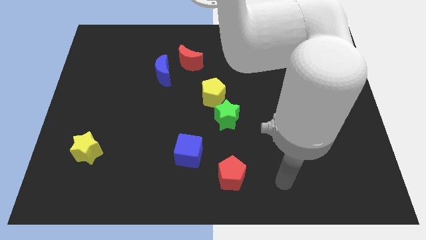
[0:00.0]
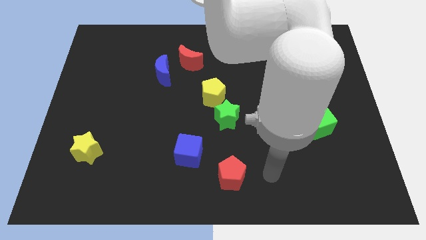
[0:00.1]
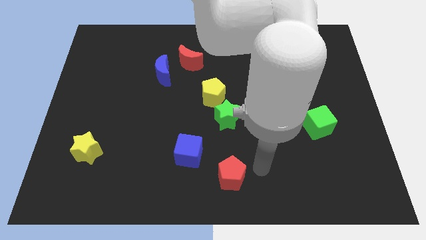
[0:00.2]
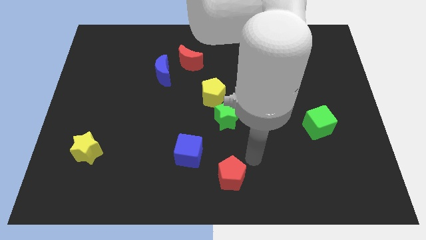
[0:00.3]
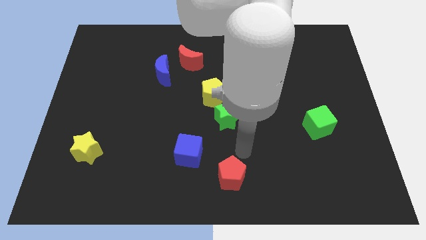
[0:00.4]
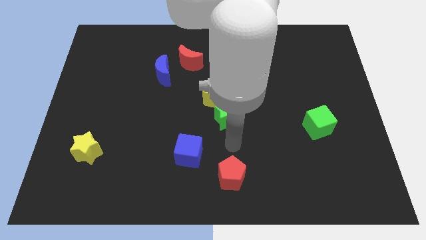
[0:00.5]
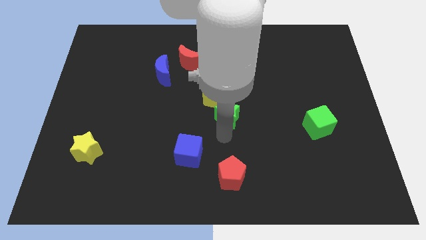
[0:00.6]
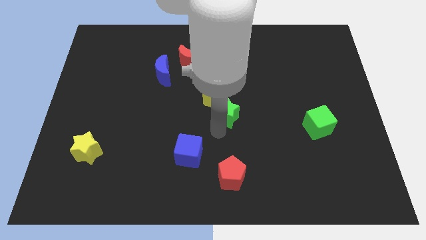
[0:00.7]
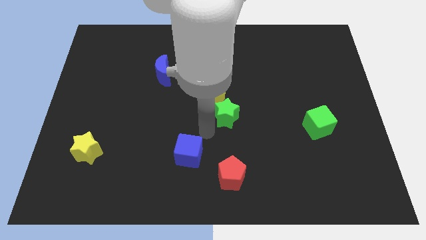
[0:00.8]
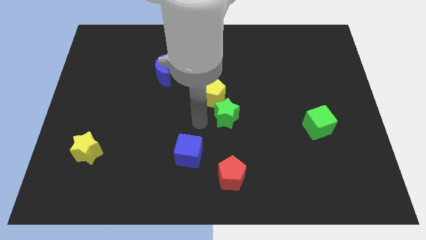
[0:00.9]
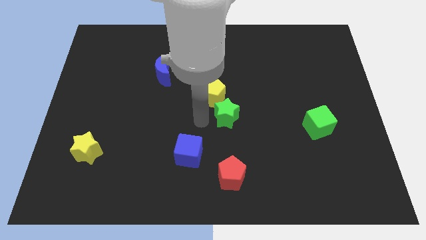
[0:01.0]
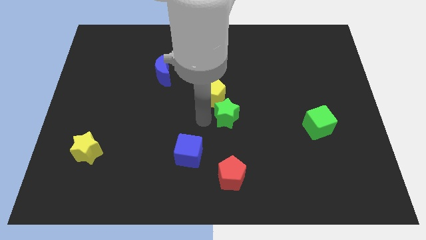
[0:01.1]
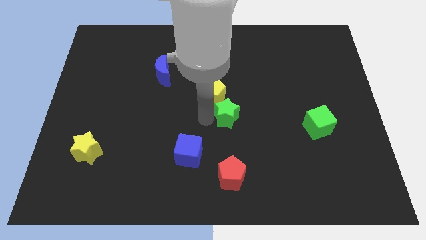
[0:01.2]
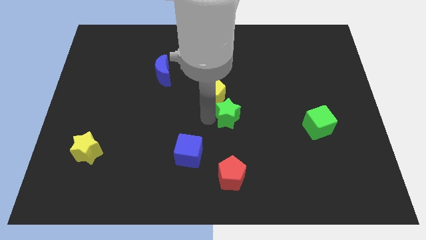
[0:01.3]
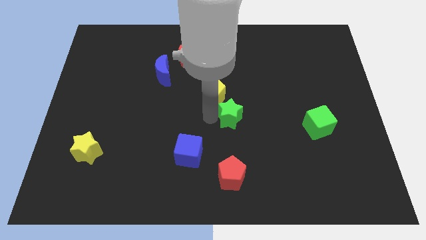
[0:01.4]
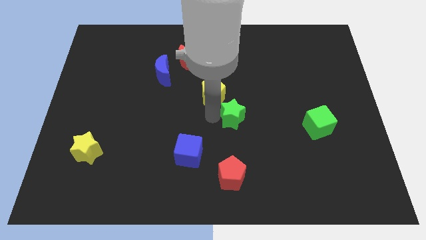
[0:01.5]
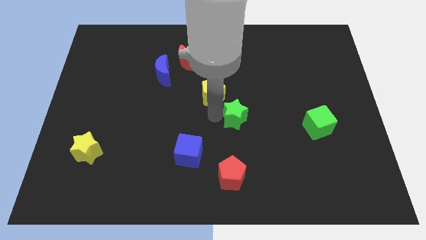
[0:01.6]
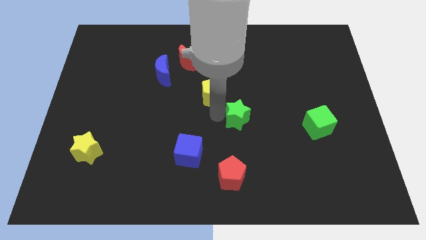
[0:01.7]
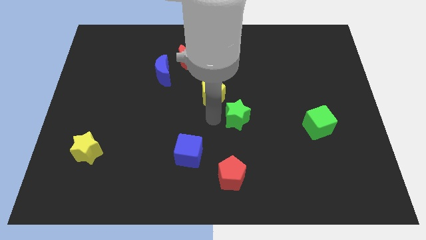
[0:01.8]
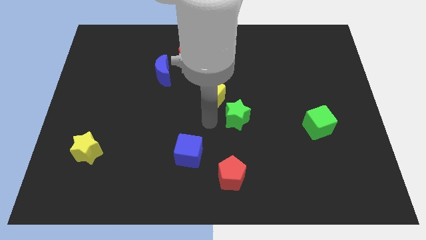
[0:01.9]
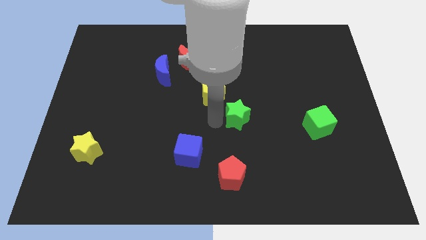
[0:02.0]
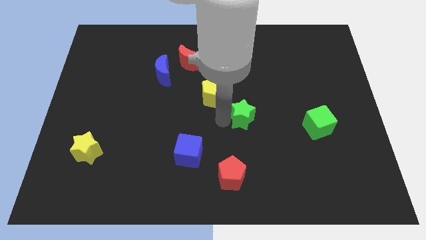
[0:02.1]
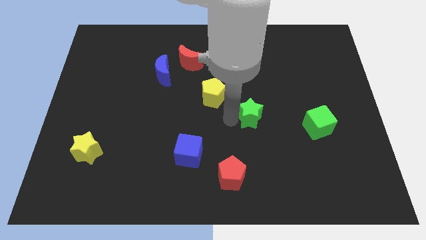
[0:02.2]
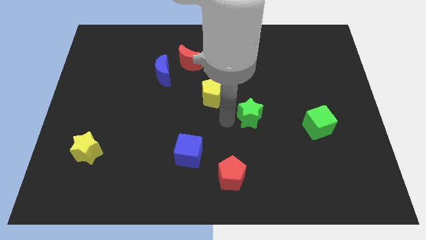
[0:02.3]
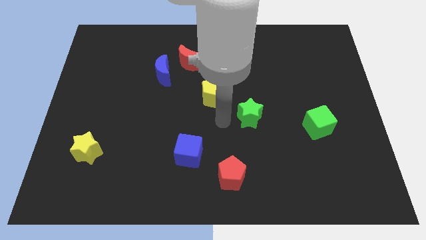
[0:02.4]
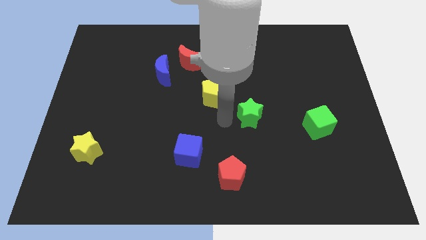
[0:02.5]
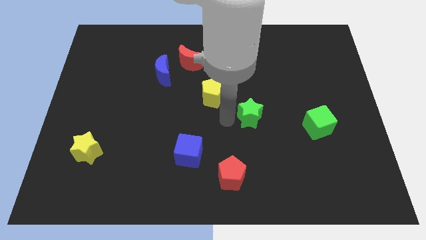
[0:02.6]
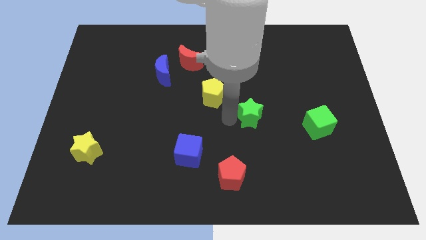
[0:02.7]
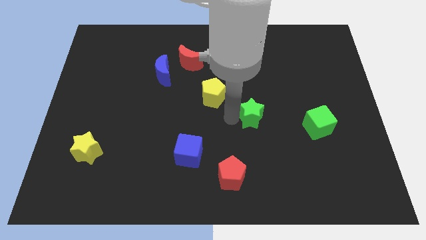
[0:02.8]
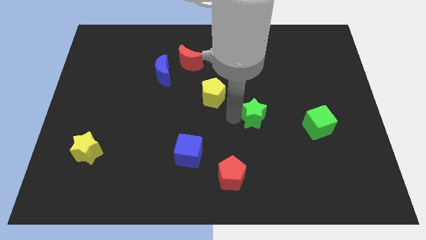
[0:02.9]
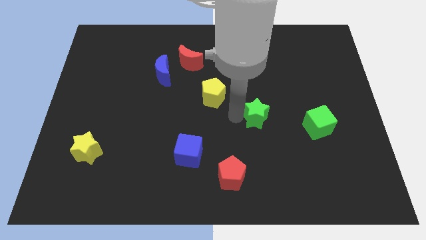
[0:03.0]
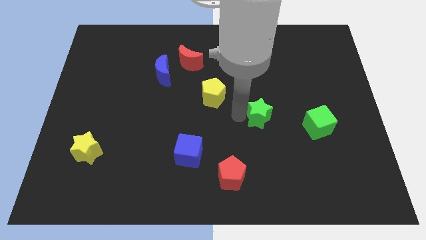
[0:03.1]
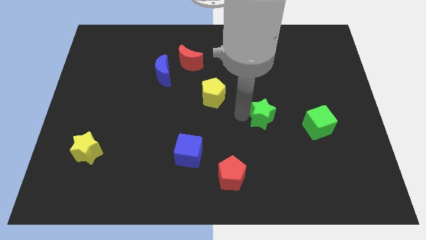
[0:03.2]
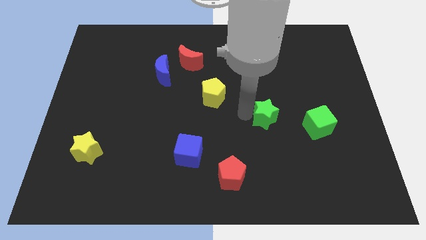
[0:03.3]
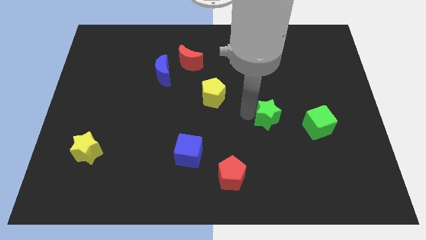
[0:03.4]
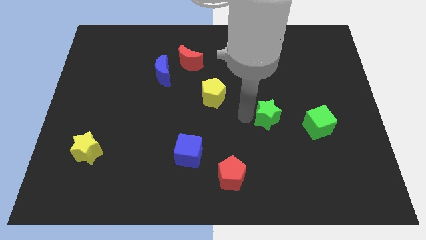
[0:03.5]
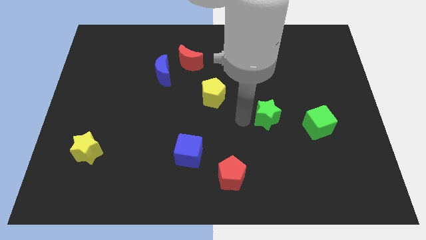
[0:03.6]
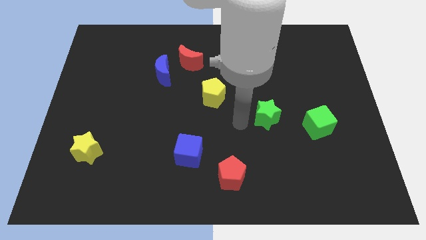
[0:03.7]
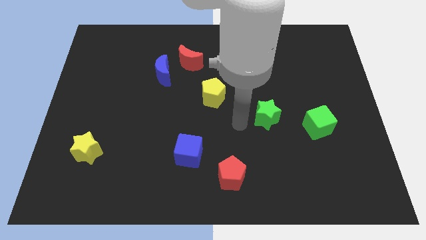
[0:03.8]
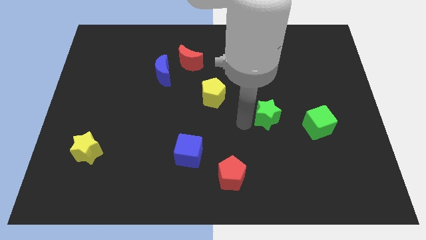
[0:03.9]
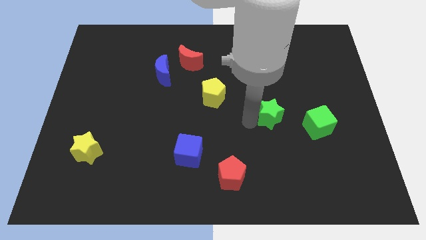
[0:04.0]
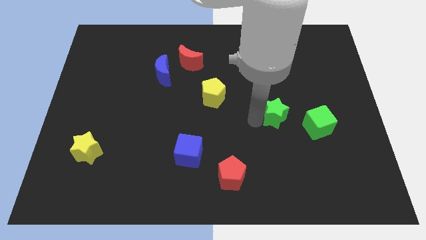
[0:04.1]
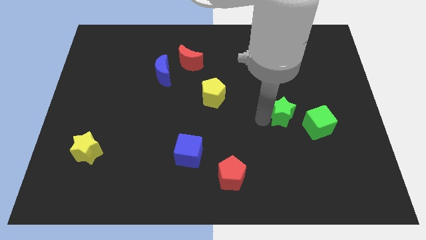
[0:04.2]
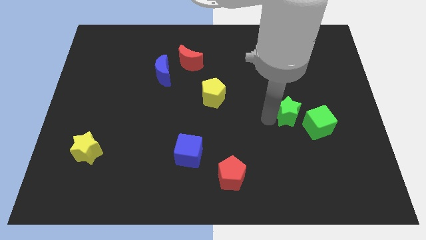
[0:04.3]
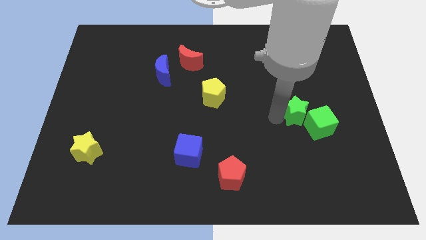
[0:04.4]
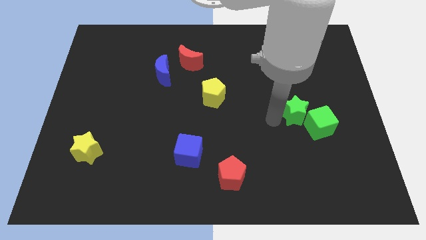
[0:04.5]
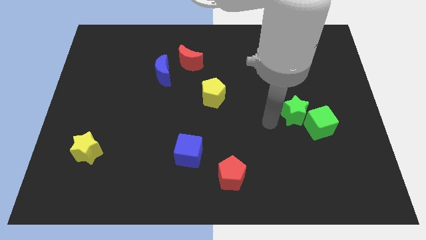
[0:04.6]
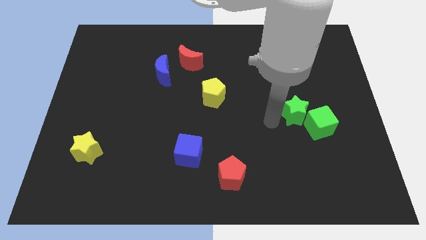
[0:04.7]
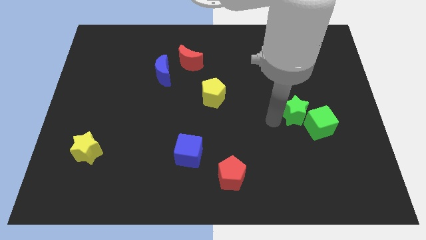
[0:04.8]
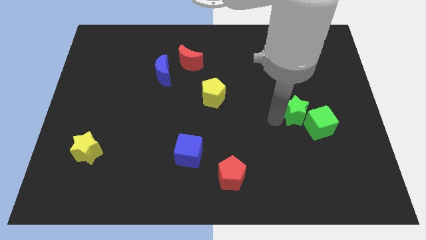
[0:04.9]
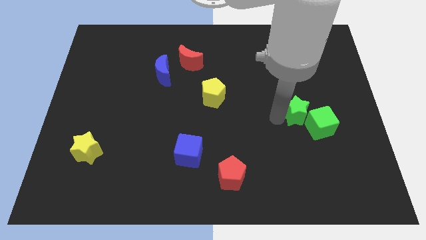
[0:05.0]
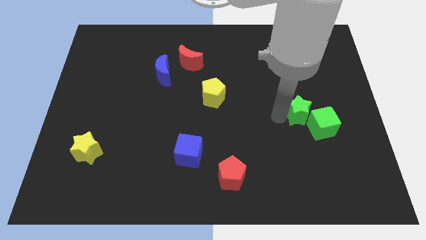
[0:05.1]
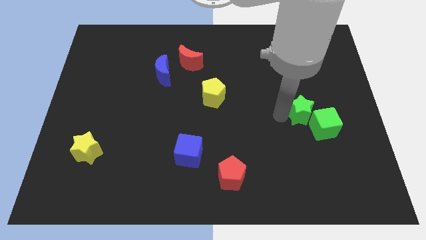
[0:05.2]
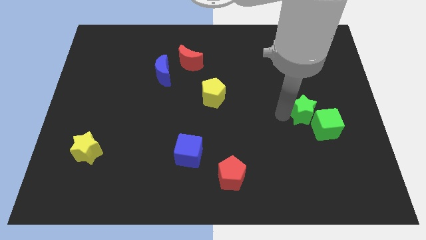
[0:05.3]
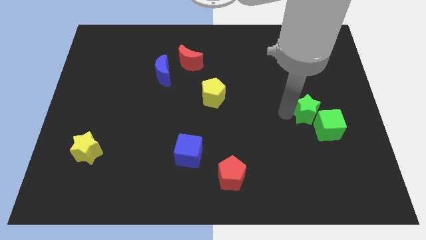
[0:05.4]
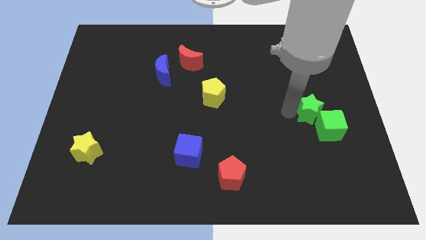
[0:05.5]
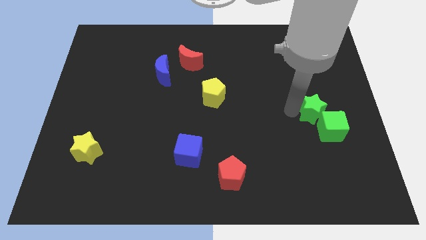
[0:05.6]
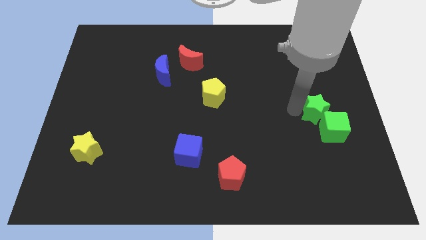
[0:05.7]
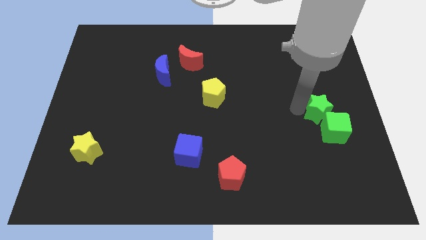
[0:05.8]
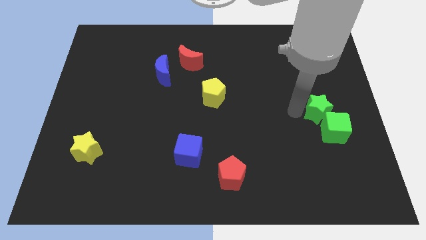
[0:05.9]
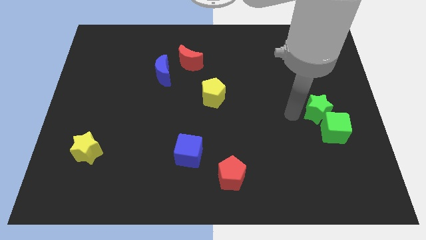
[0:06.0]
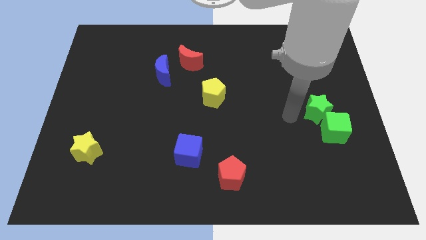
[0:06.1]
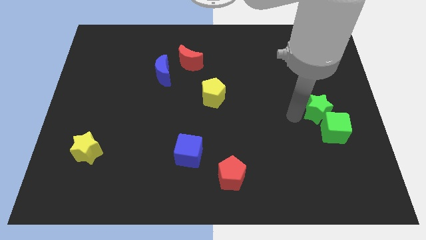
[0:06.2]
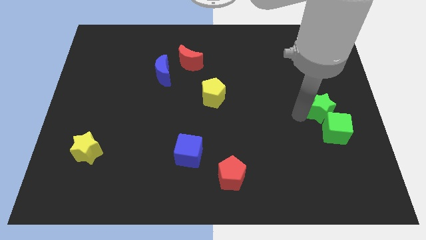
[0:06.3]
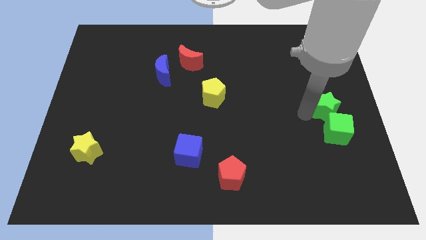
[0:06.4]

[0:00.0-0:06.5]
put the green star to the center right
